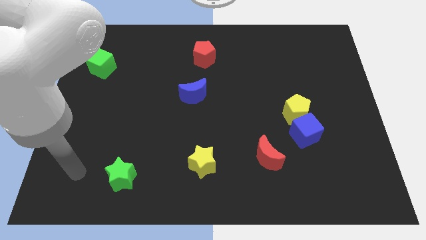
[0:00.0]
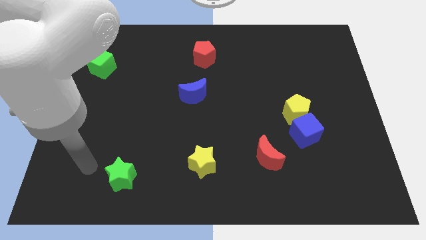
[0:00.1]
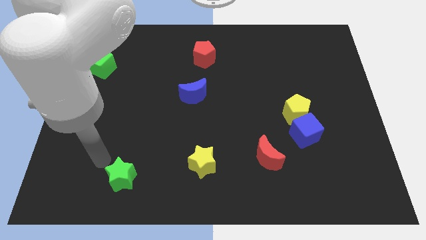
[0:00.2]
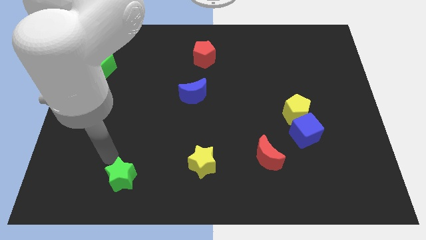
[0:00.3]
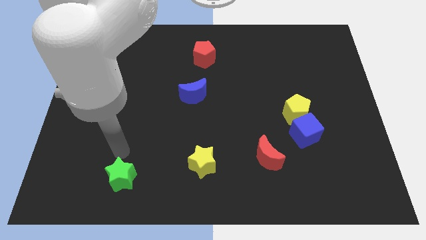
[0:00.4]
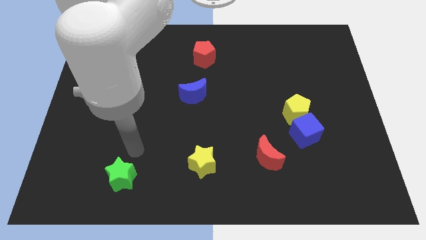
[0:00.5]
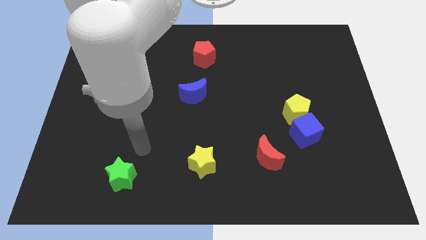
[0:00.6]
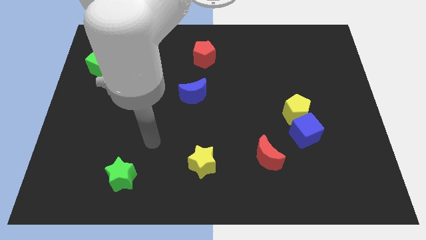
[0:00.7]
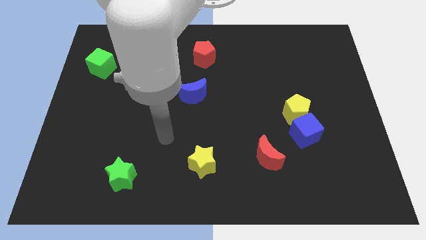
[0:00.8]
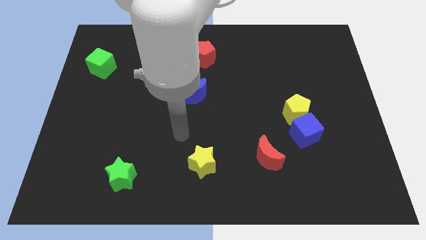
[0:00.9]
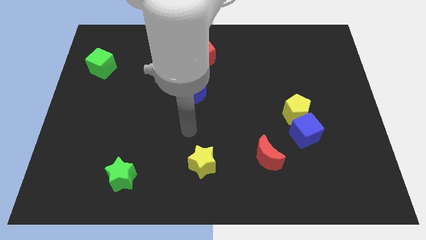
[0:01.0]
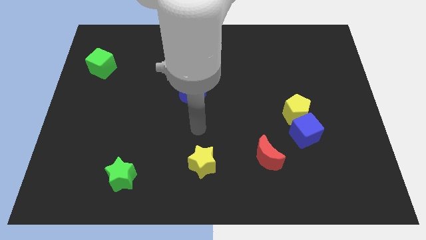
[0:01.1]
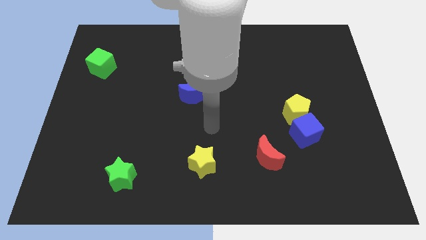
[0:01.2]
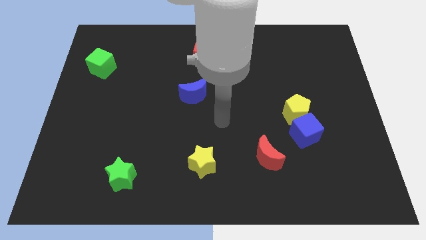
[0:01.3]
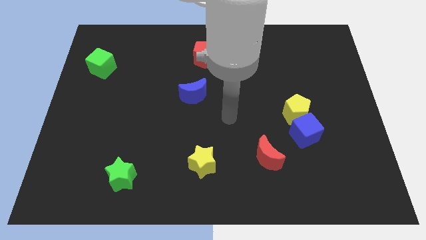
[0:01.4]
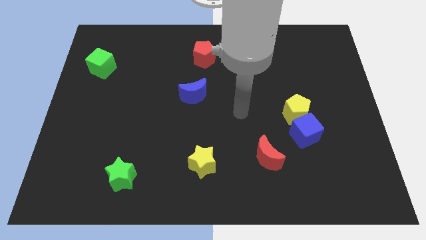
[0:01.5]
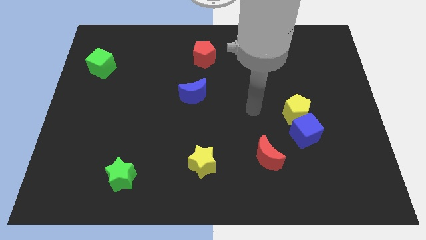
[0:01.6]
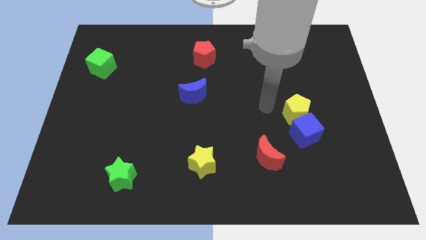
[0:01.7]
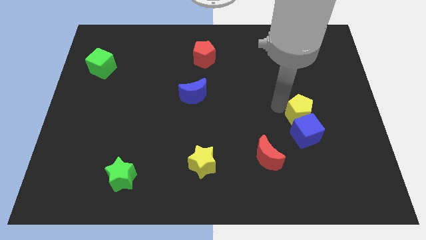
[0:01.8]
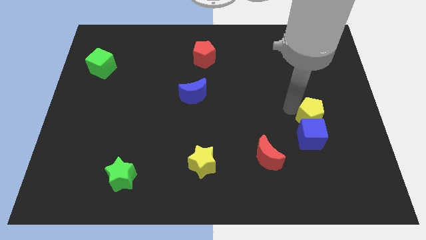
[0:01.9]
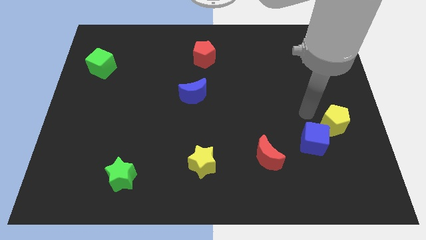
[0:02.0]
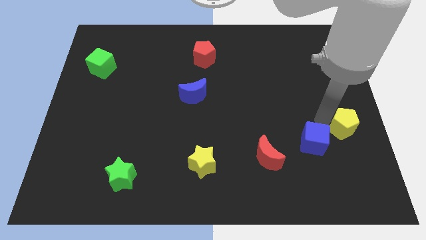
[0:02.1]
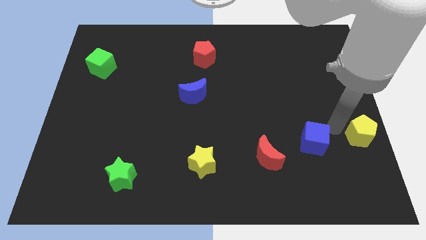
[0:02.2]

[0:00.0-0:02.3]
move the blue cube away from the yellow pentagon

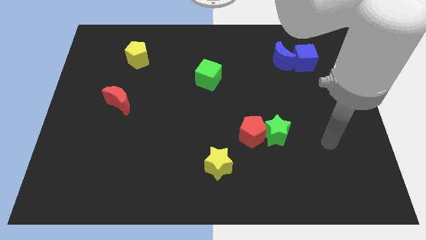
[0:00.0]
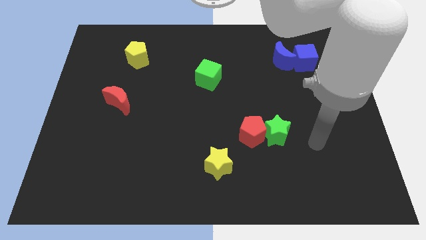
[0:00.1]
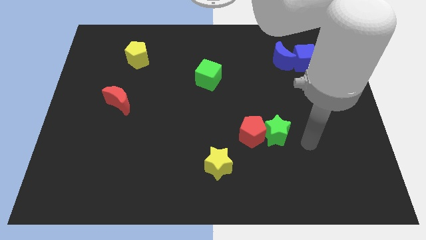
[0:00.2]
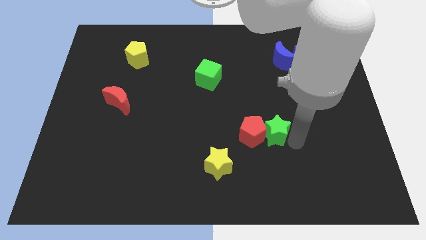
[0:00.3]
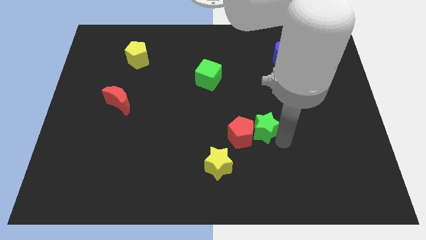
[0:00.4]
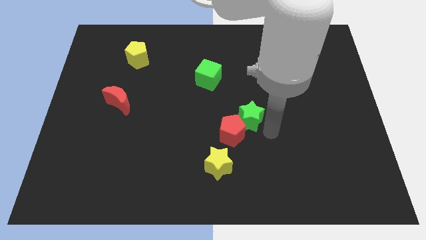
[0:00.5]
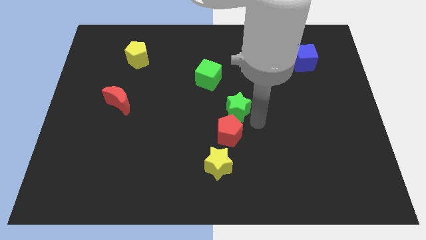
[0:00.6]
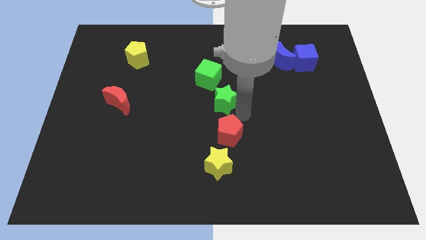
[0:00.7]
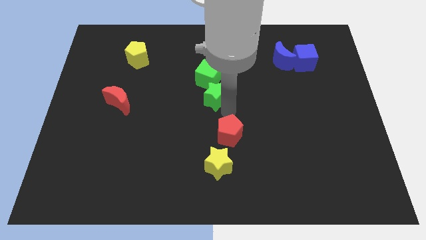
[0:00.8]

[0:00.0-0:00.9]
pull the red pentagon apart from the green star

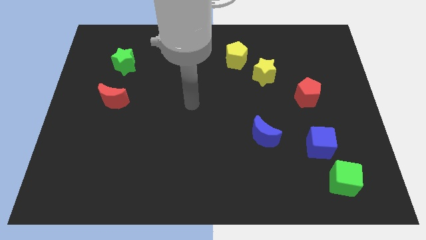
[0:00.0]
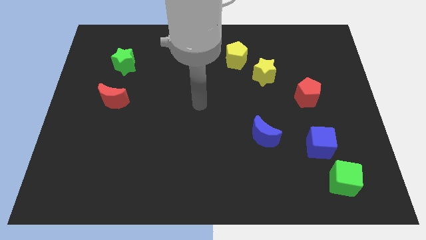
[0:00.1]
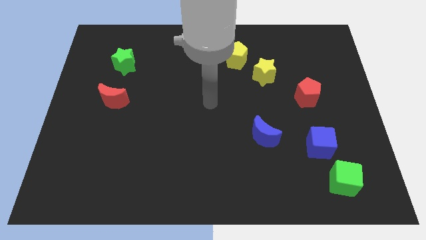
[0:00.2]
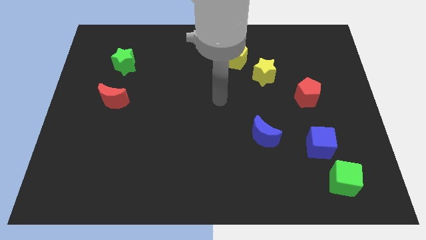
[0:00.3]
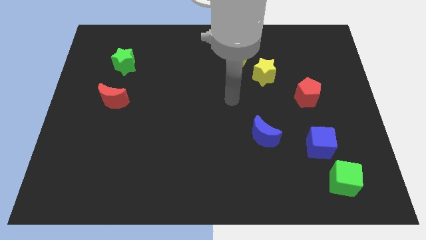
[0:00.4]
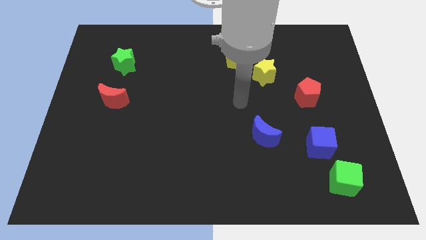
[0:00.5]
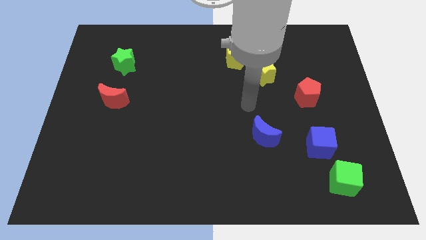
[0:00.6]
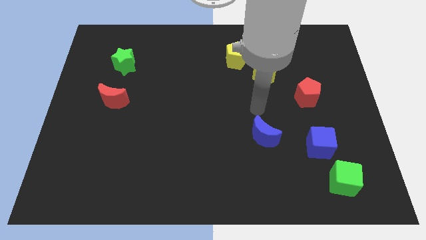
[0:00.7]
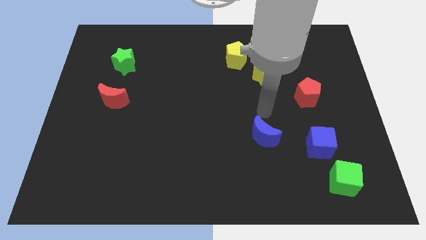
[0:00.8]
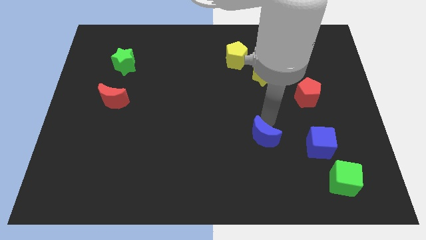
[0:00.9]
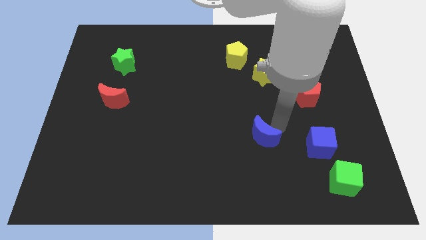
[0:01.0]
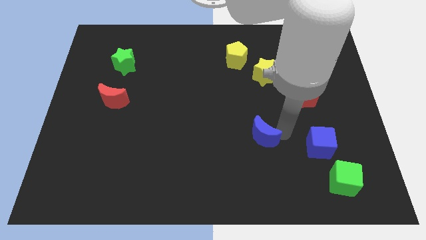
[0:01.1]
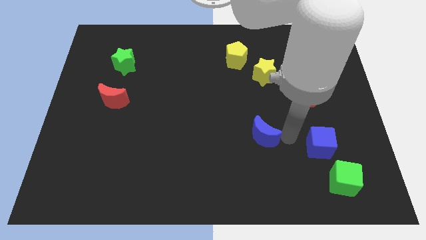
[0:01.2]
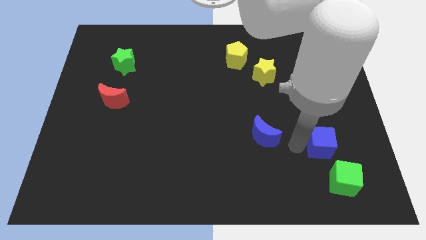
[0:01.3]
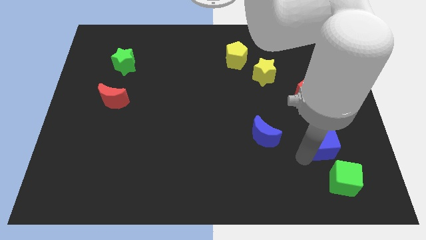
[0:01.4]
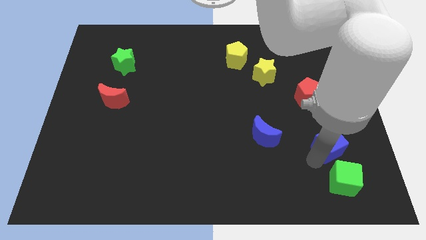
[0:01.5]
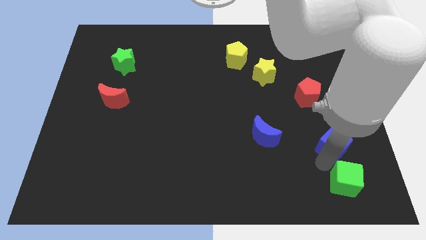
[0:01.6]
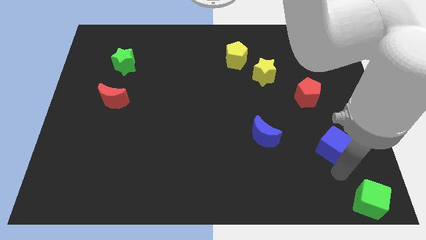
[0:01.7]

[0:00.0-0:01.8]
separate the blue cube from the green cube

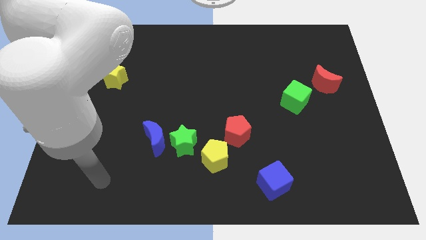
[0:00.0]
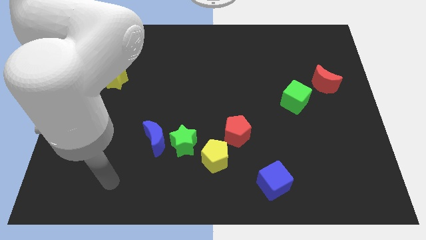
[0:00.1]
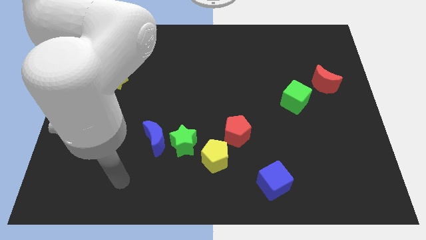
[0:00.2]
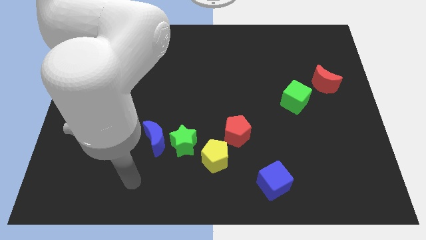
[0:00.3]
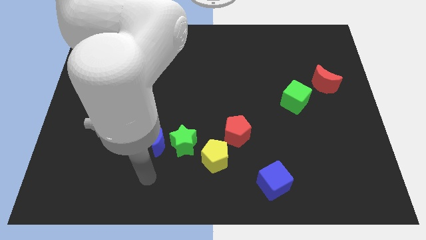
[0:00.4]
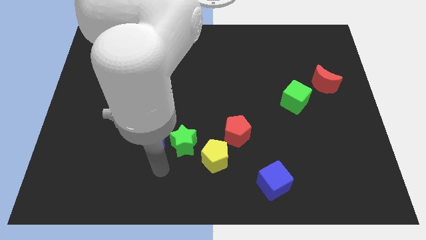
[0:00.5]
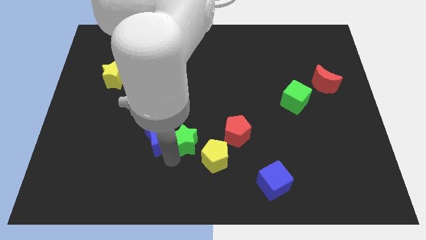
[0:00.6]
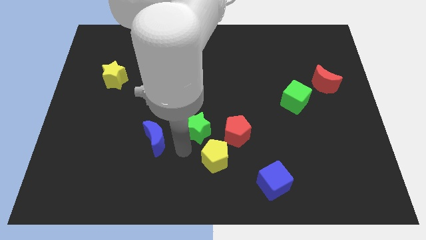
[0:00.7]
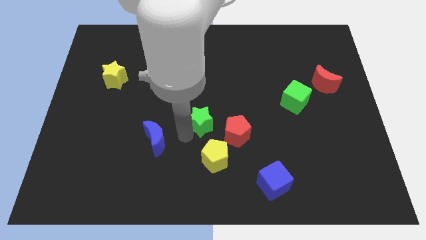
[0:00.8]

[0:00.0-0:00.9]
separate the blue moon from the green star

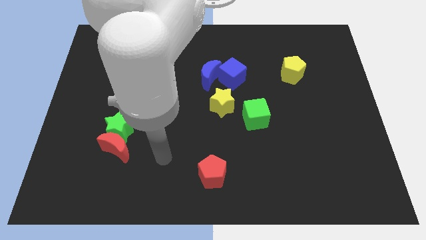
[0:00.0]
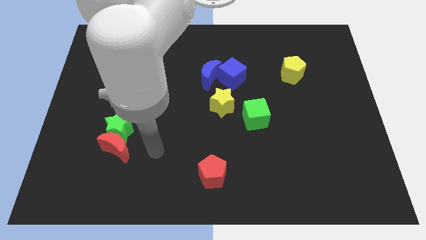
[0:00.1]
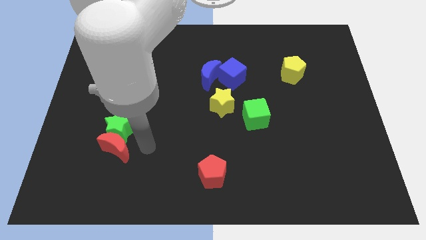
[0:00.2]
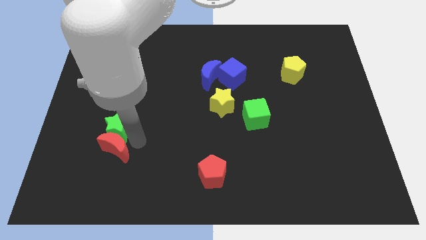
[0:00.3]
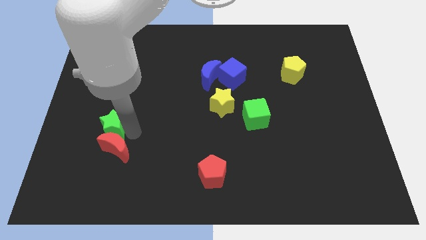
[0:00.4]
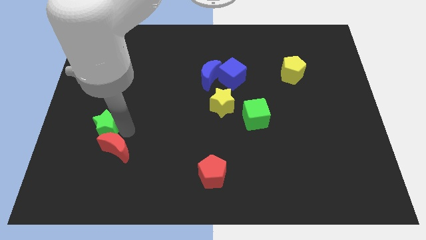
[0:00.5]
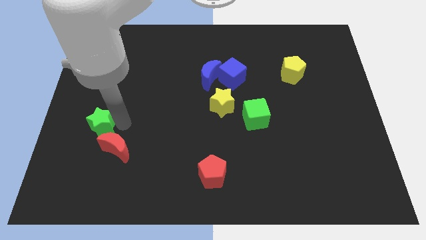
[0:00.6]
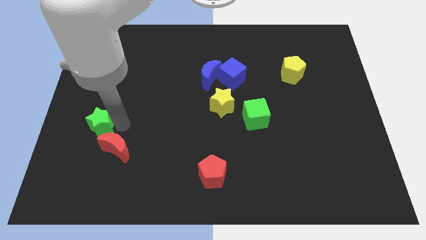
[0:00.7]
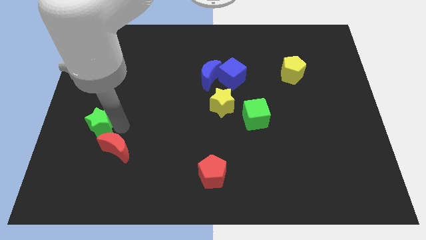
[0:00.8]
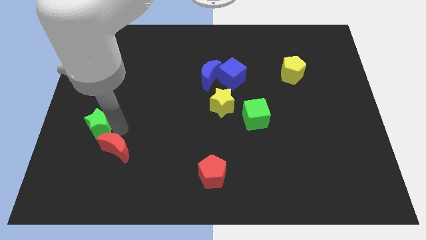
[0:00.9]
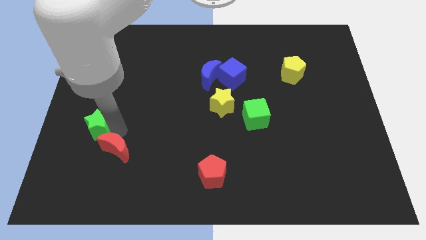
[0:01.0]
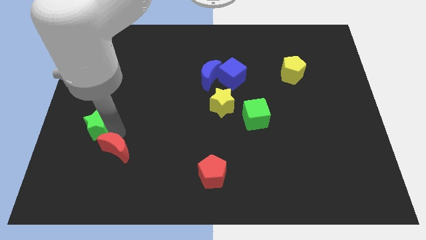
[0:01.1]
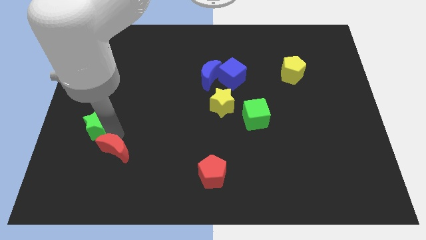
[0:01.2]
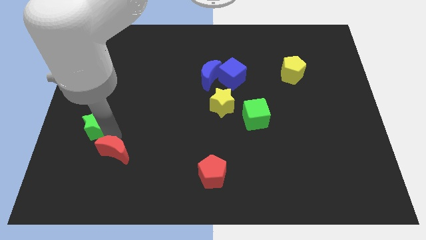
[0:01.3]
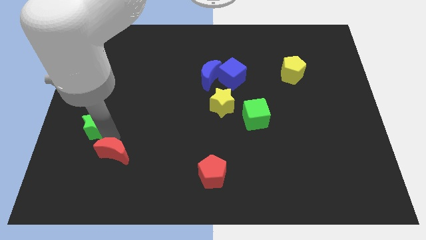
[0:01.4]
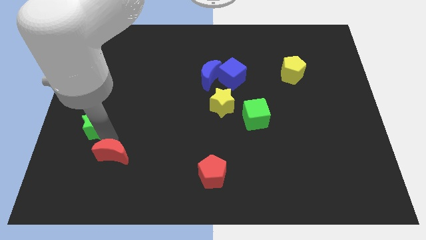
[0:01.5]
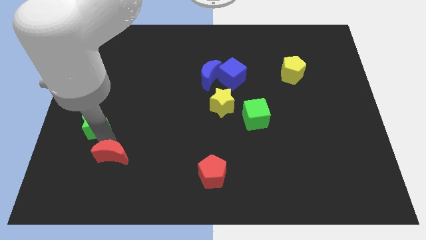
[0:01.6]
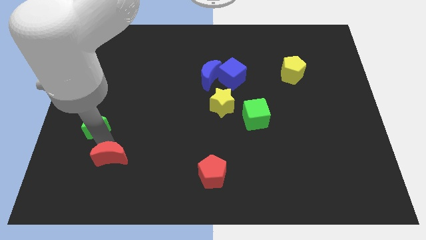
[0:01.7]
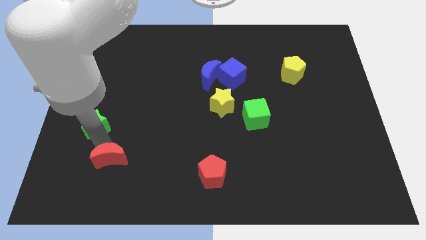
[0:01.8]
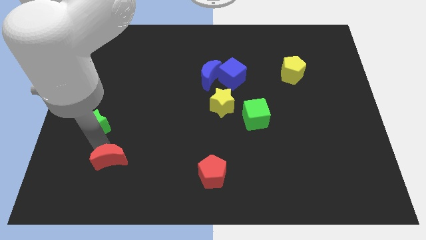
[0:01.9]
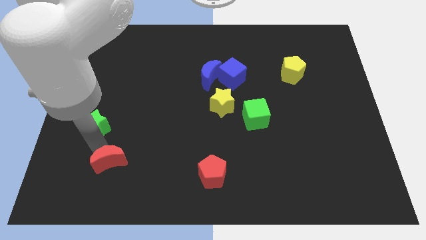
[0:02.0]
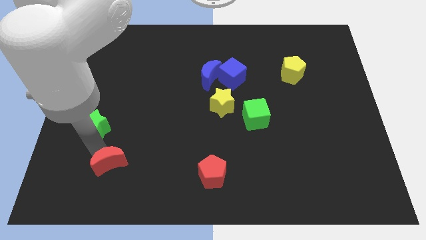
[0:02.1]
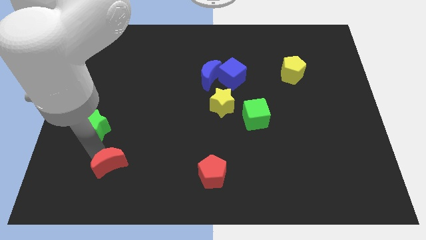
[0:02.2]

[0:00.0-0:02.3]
move the red moon away from the green star

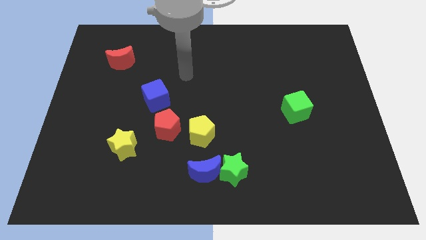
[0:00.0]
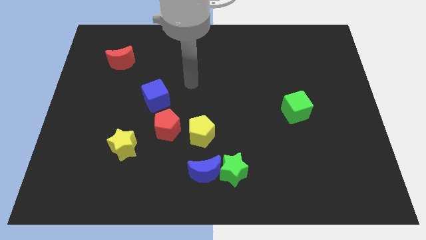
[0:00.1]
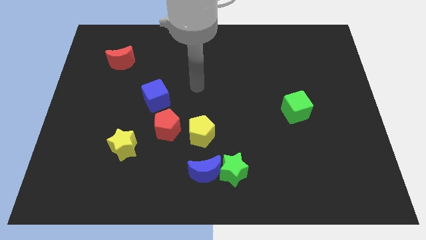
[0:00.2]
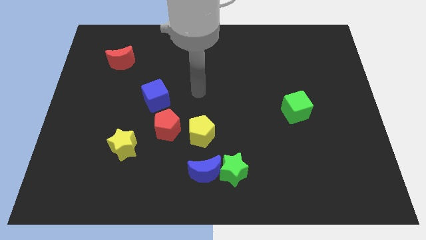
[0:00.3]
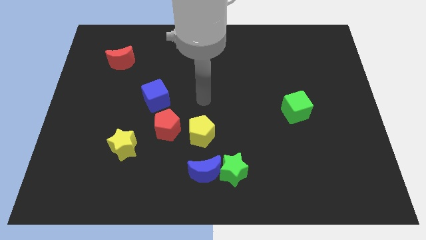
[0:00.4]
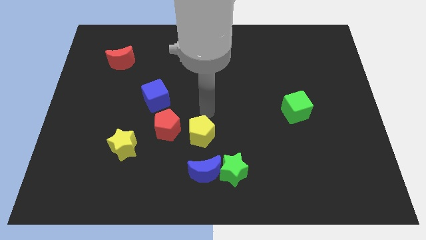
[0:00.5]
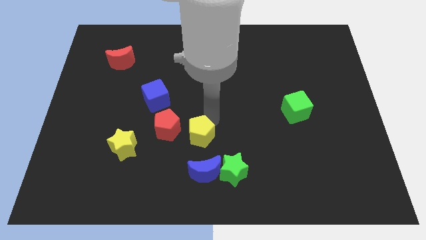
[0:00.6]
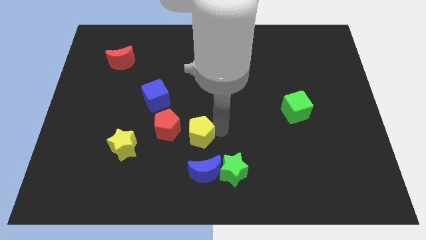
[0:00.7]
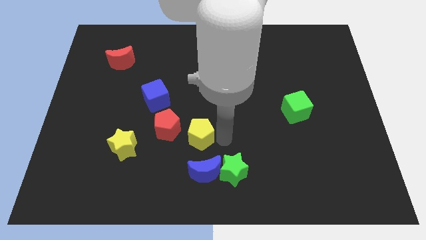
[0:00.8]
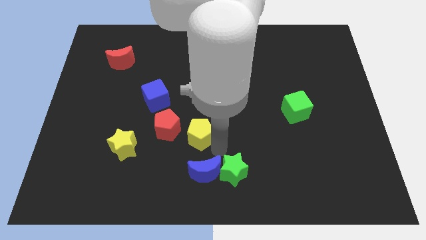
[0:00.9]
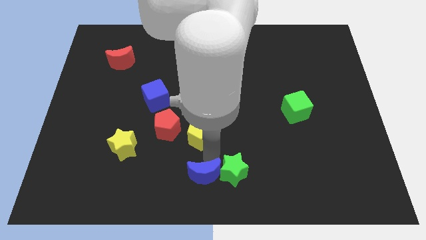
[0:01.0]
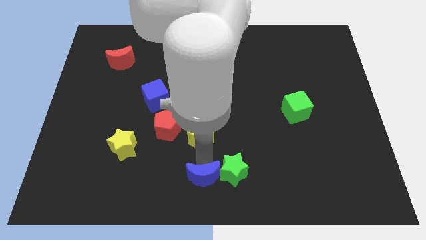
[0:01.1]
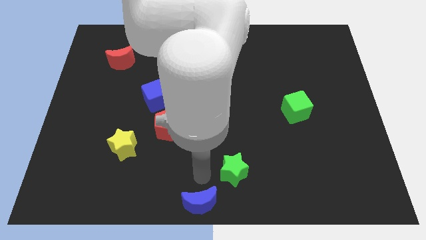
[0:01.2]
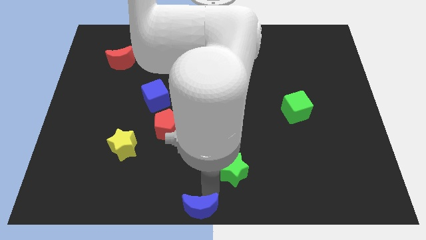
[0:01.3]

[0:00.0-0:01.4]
move the green star away from the blue moon
